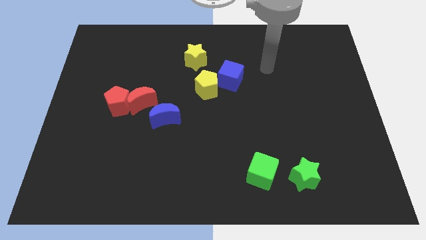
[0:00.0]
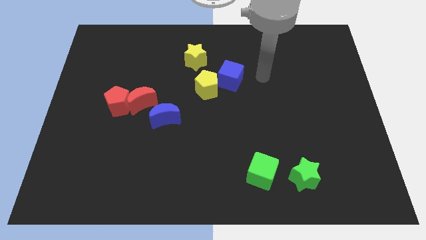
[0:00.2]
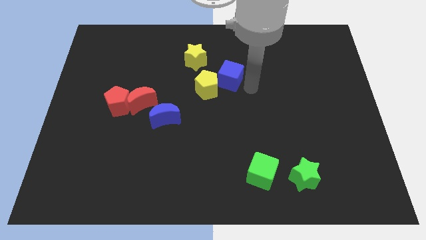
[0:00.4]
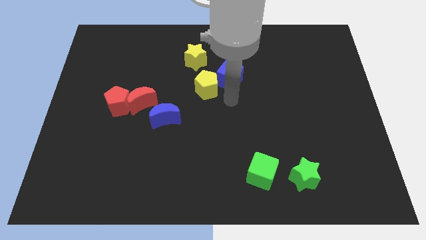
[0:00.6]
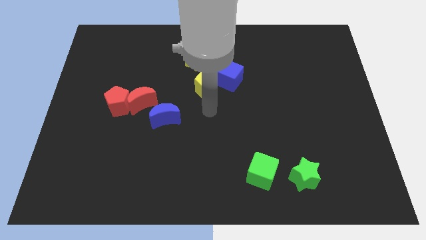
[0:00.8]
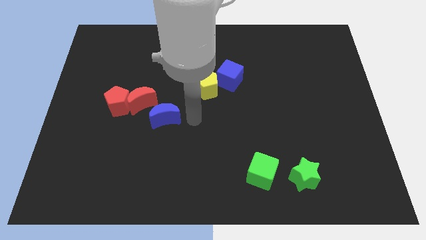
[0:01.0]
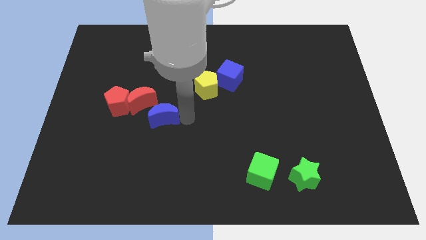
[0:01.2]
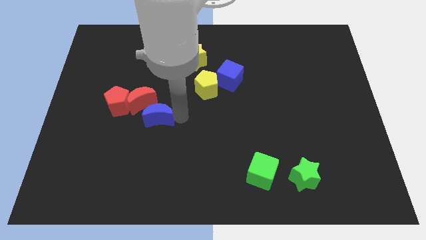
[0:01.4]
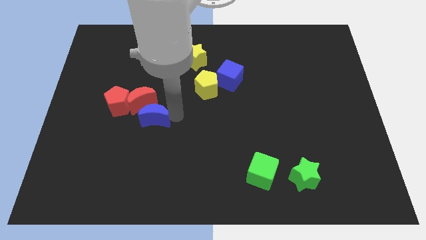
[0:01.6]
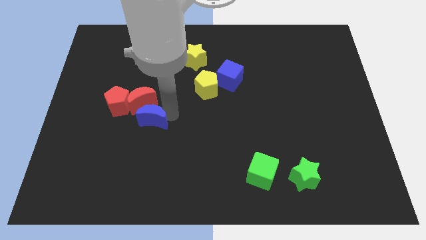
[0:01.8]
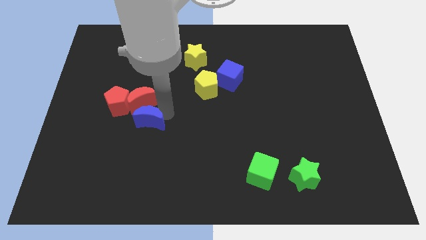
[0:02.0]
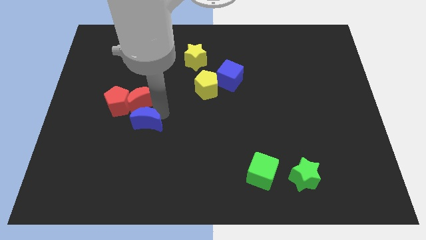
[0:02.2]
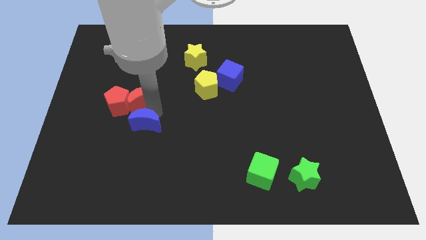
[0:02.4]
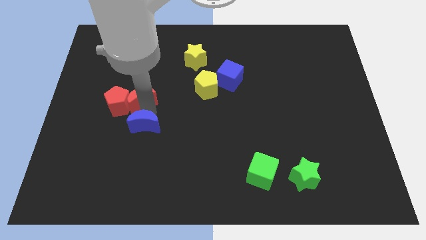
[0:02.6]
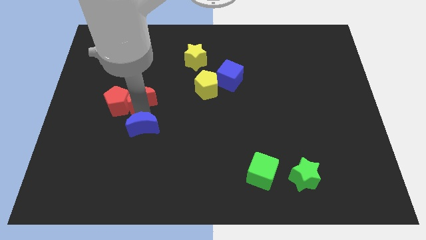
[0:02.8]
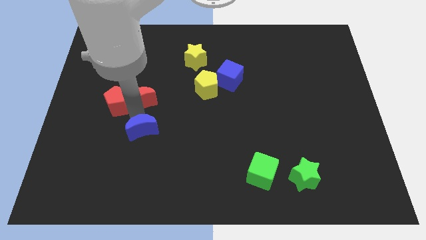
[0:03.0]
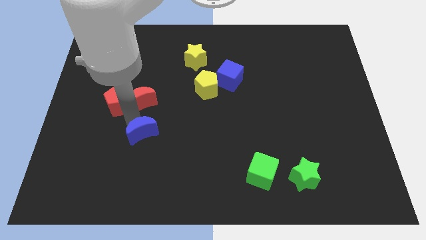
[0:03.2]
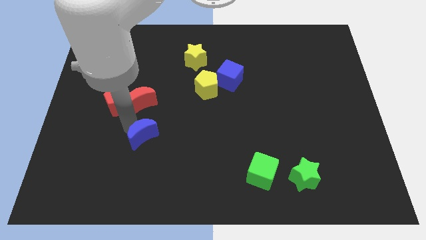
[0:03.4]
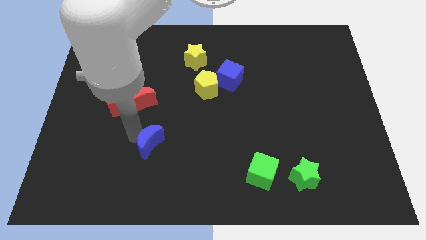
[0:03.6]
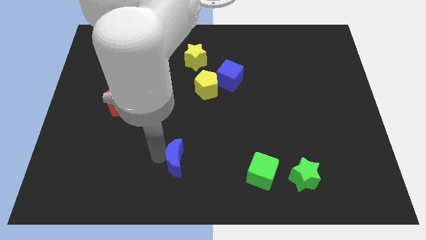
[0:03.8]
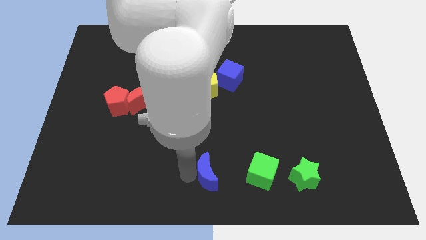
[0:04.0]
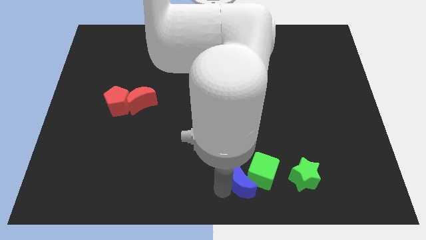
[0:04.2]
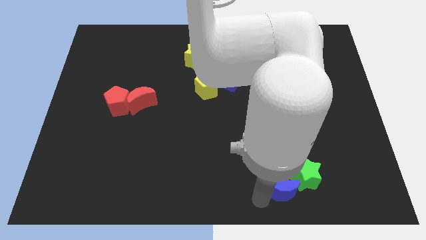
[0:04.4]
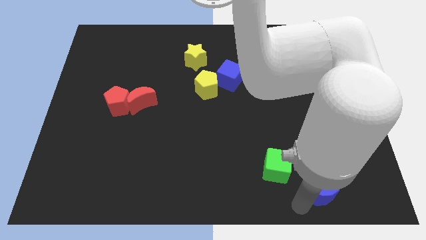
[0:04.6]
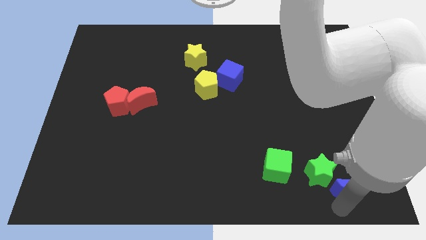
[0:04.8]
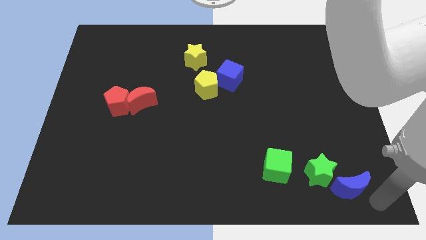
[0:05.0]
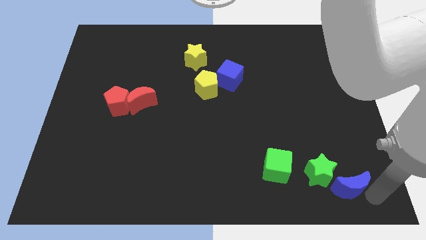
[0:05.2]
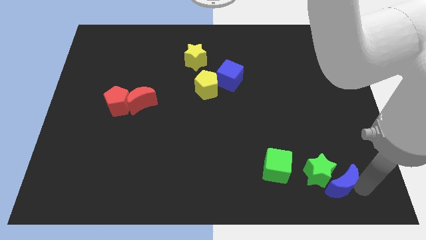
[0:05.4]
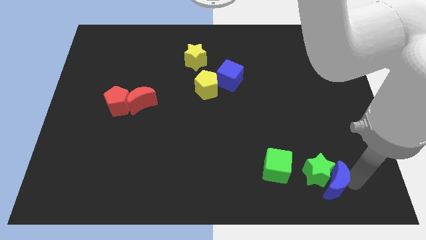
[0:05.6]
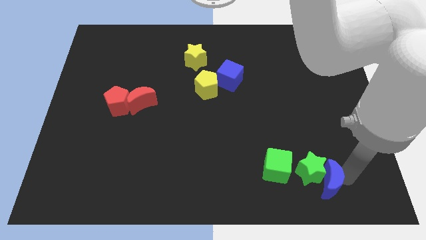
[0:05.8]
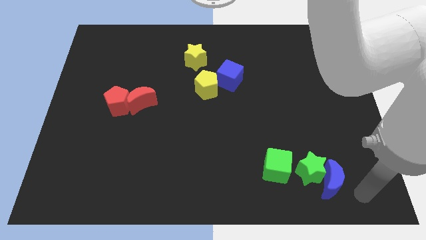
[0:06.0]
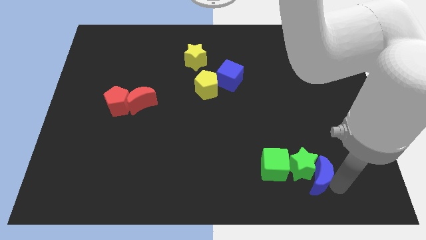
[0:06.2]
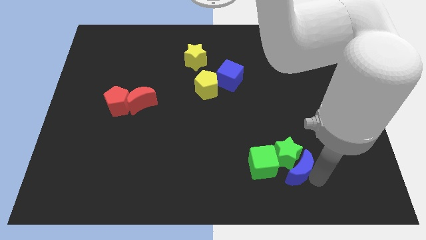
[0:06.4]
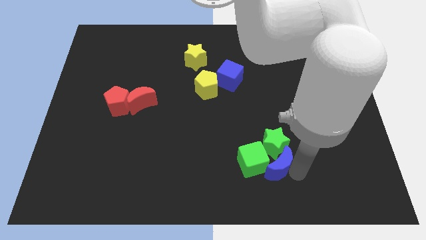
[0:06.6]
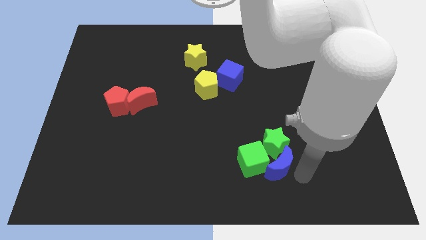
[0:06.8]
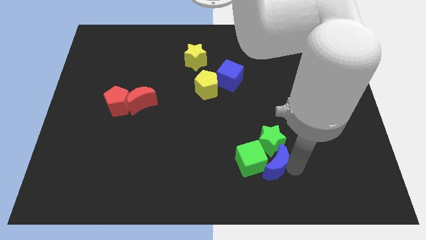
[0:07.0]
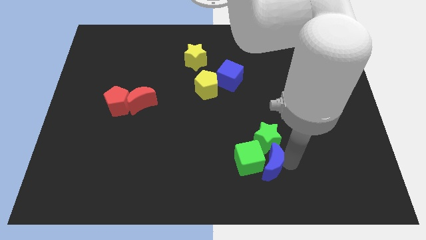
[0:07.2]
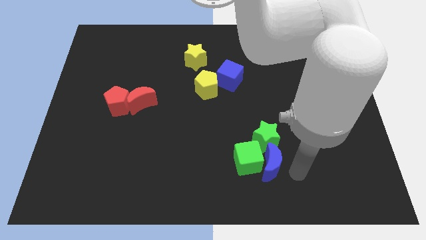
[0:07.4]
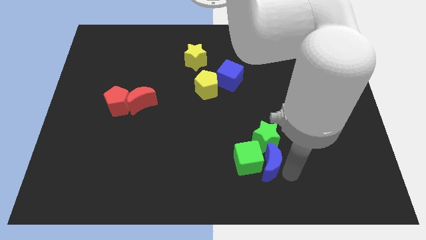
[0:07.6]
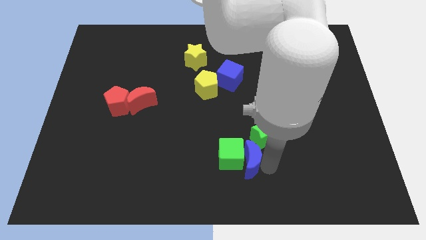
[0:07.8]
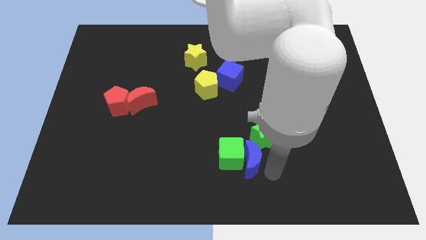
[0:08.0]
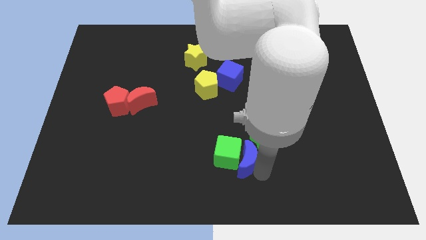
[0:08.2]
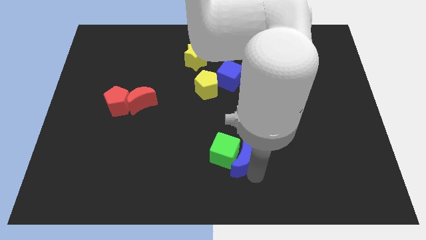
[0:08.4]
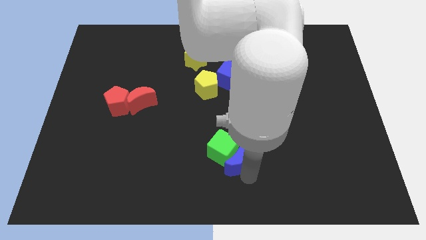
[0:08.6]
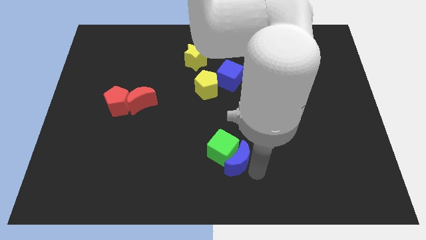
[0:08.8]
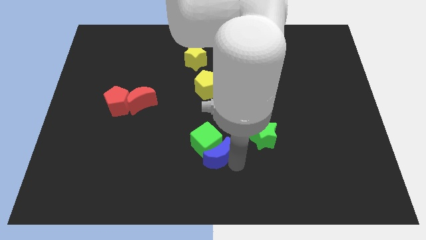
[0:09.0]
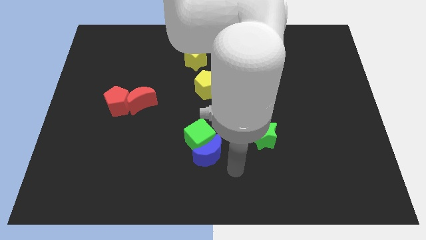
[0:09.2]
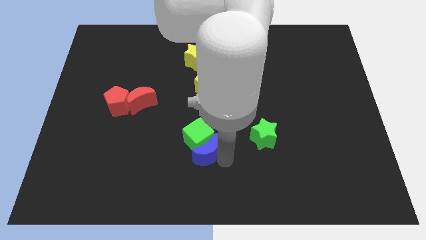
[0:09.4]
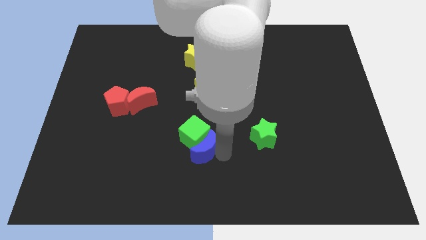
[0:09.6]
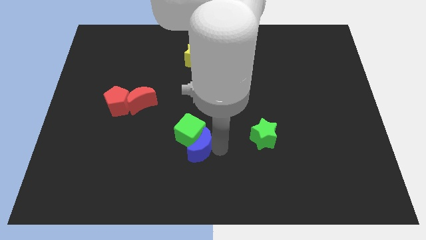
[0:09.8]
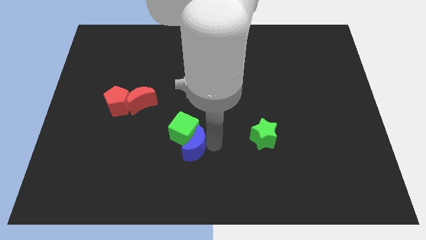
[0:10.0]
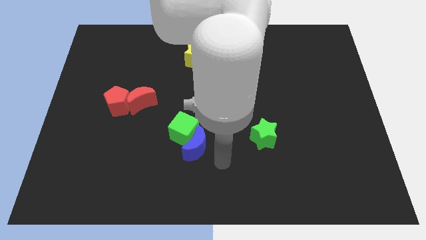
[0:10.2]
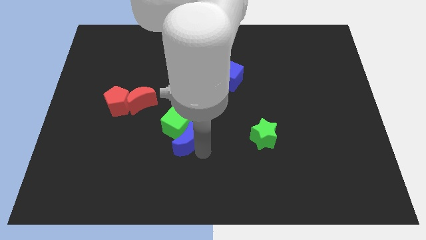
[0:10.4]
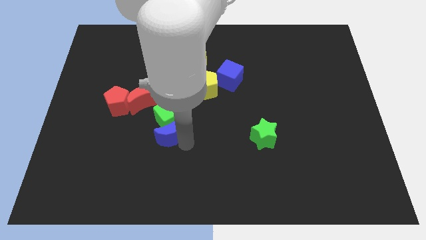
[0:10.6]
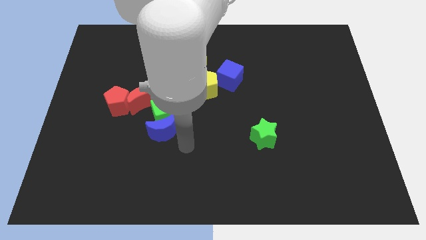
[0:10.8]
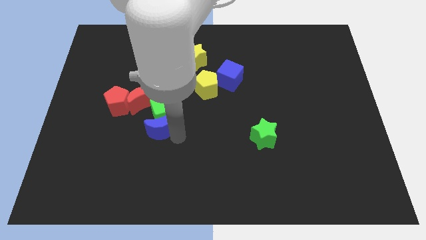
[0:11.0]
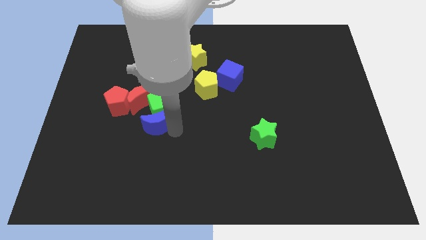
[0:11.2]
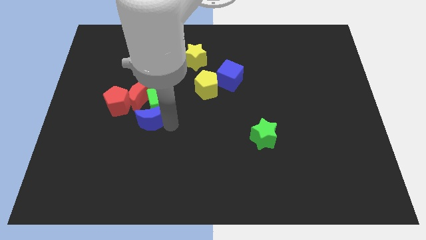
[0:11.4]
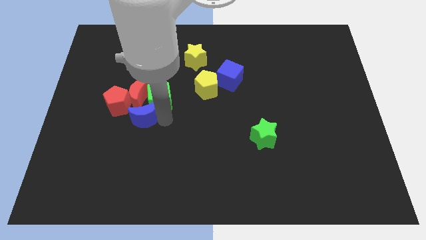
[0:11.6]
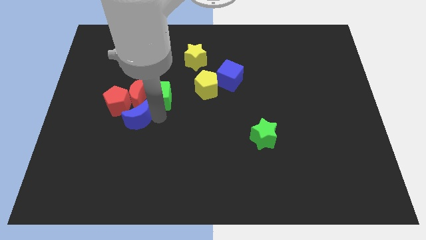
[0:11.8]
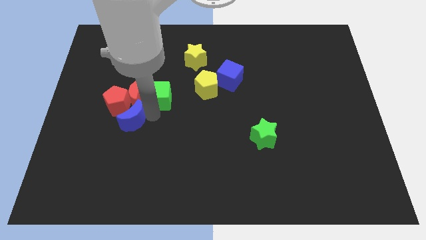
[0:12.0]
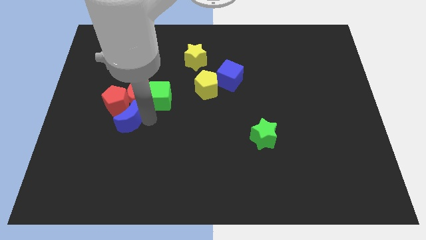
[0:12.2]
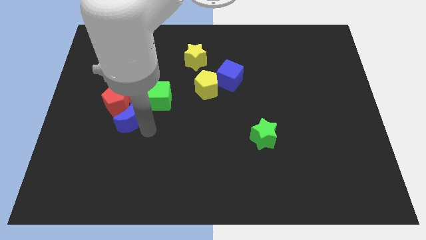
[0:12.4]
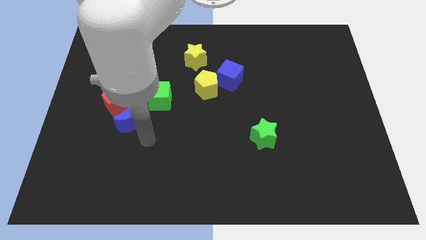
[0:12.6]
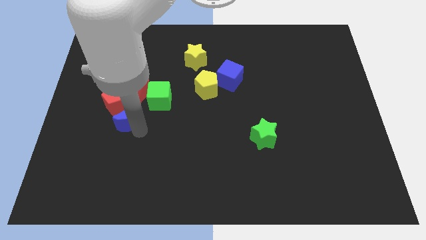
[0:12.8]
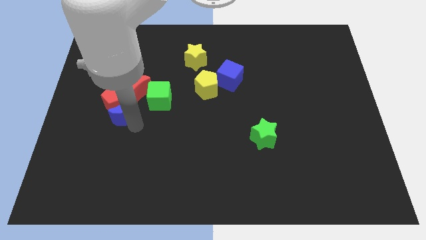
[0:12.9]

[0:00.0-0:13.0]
slide the blue moon towards the red pentagon

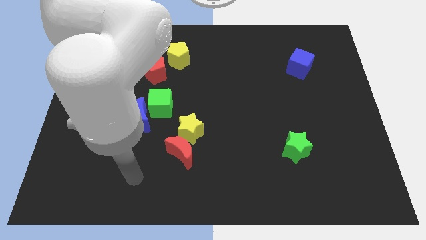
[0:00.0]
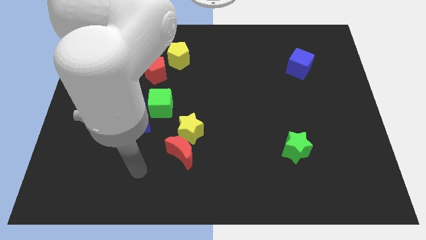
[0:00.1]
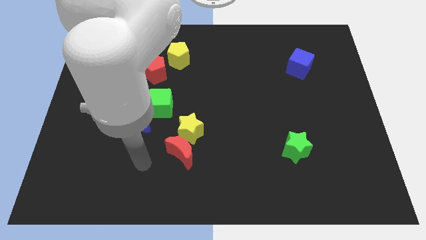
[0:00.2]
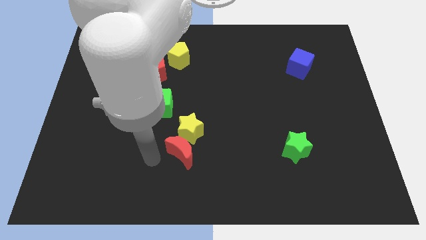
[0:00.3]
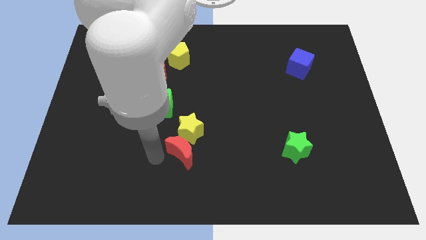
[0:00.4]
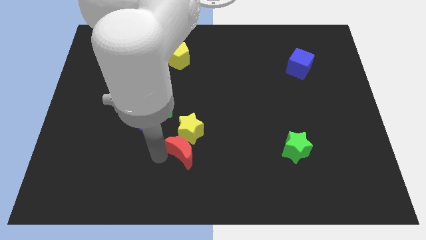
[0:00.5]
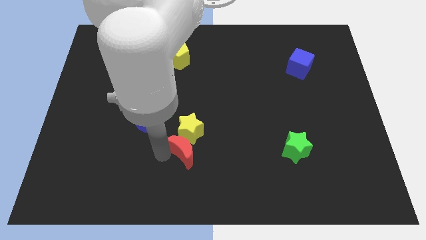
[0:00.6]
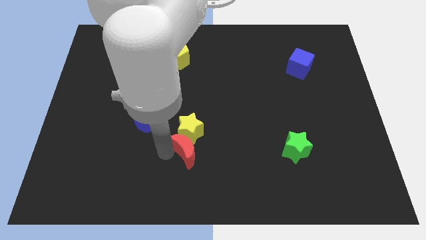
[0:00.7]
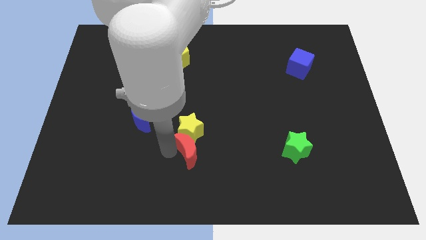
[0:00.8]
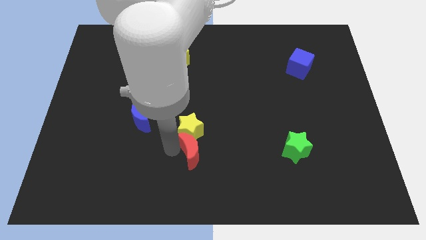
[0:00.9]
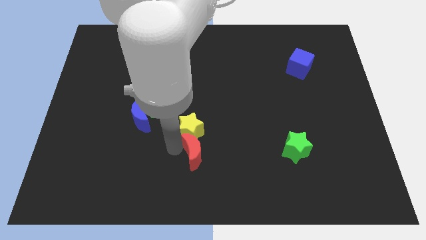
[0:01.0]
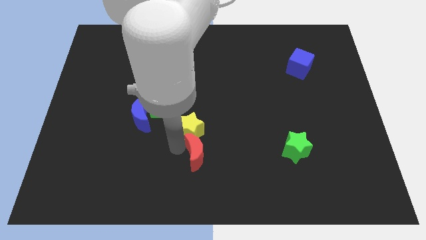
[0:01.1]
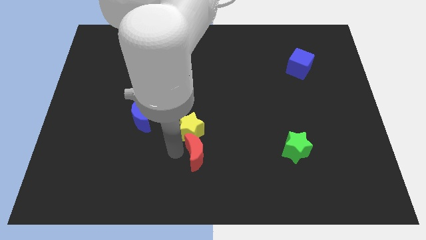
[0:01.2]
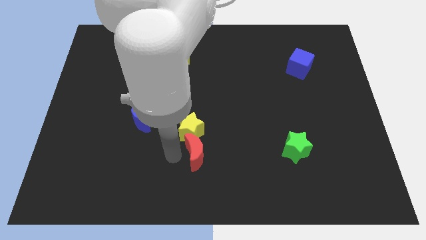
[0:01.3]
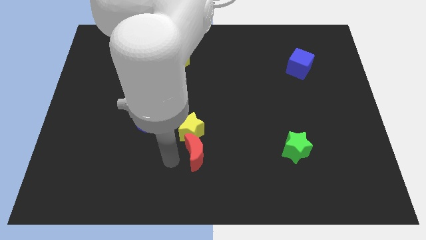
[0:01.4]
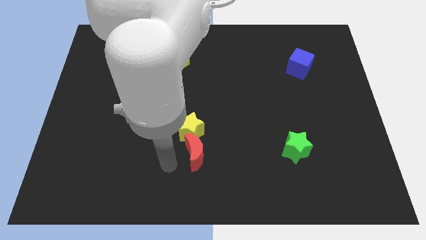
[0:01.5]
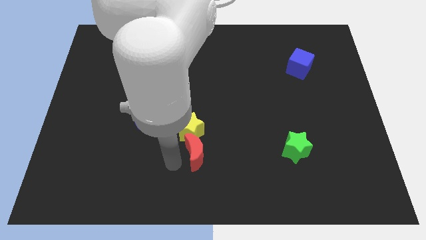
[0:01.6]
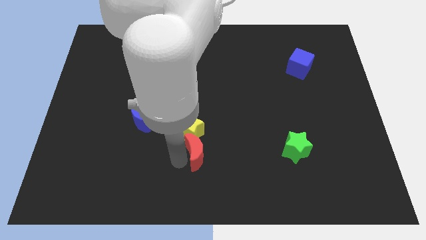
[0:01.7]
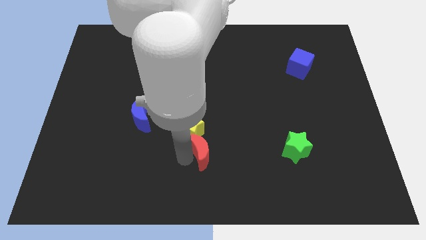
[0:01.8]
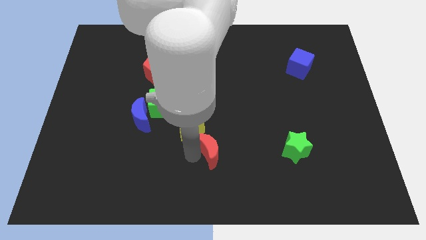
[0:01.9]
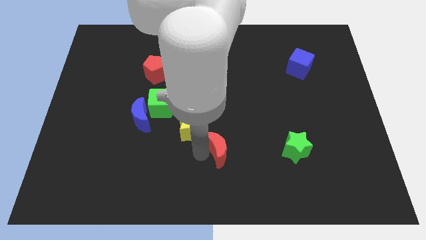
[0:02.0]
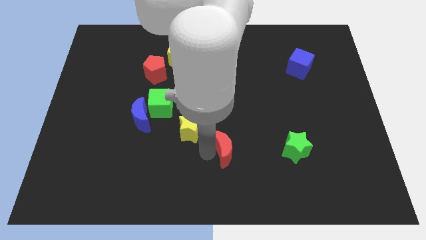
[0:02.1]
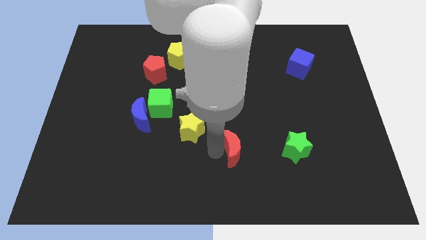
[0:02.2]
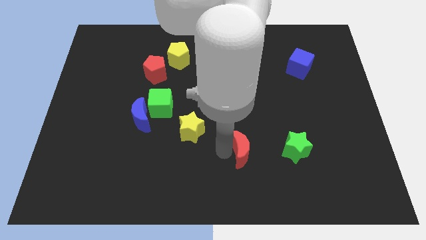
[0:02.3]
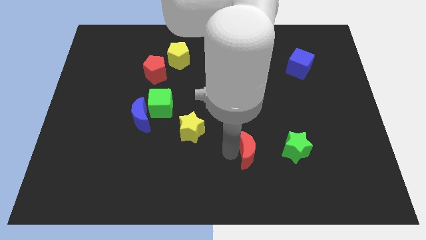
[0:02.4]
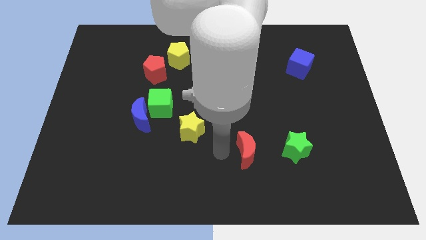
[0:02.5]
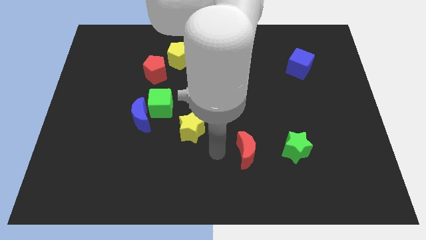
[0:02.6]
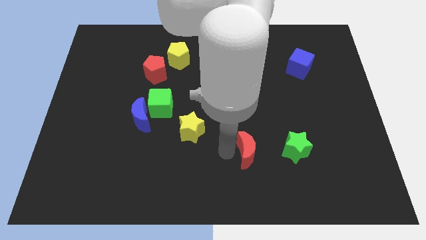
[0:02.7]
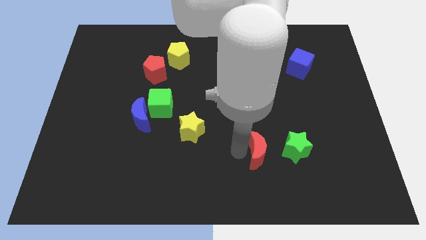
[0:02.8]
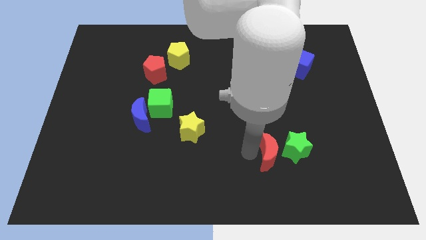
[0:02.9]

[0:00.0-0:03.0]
slide the red moon next to the green star
